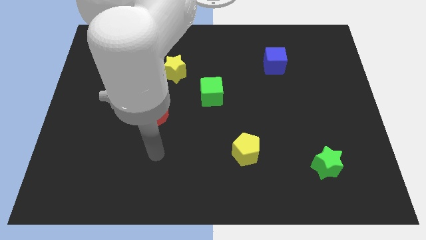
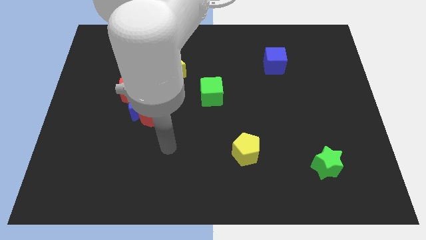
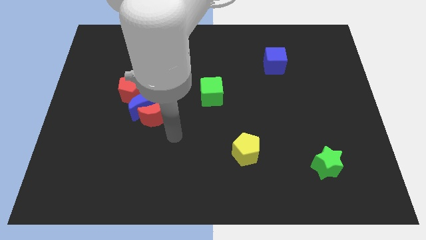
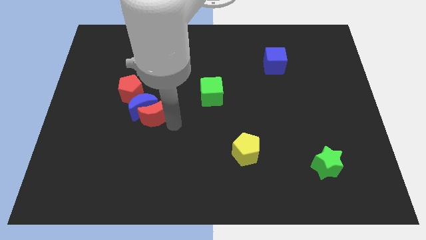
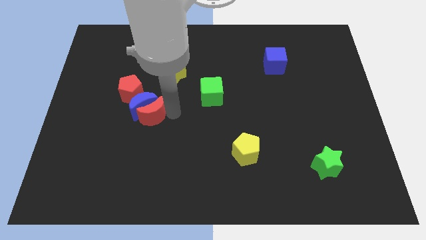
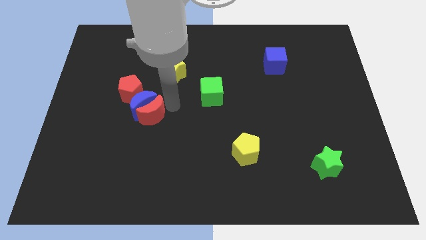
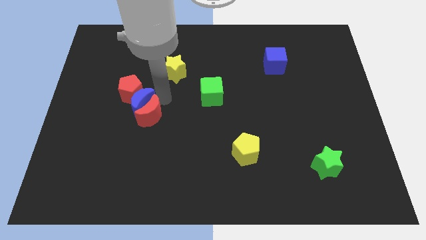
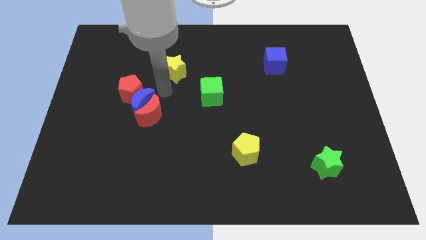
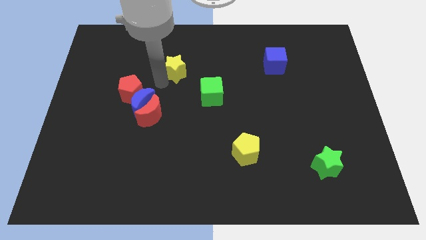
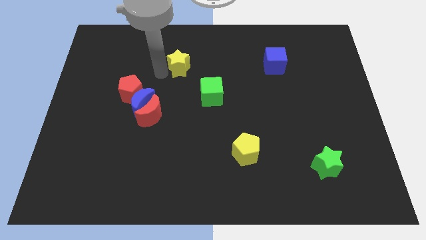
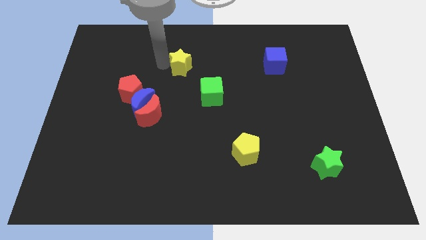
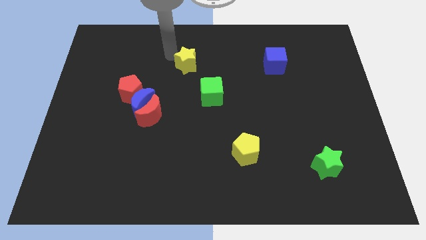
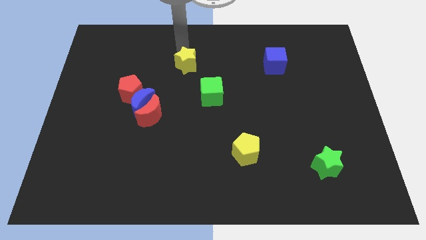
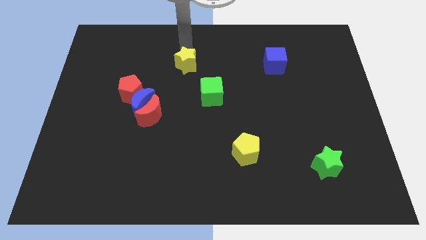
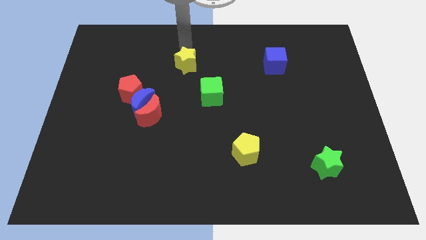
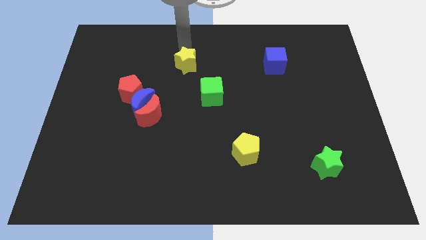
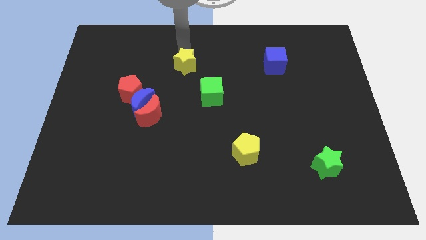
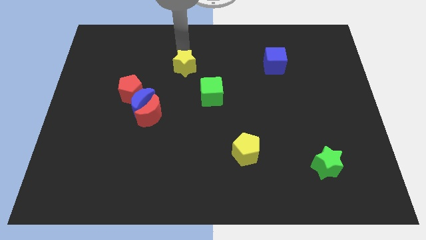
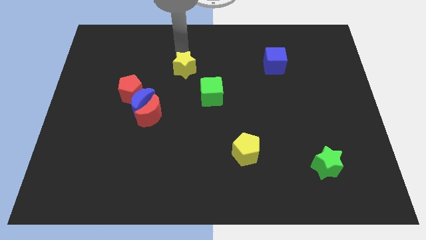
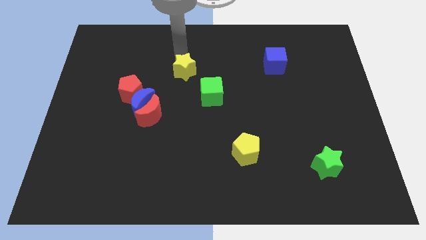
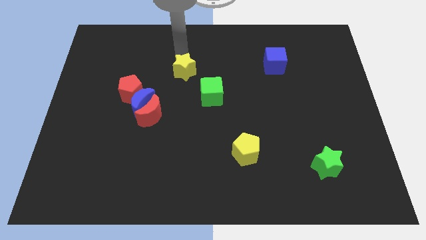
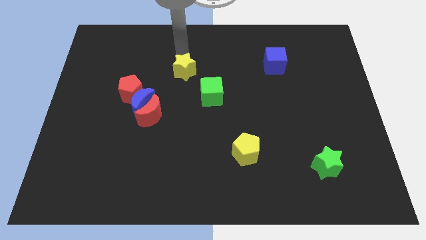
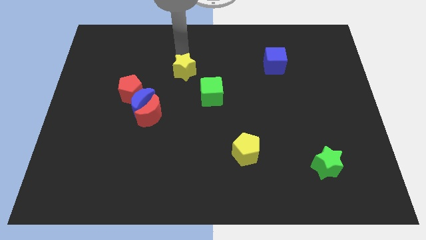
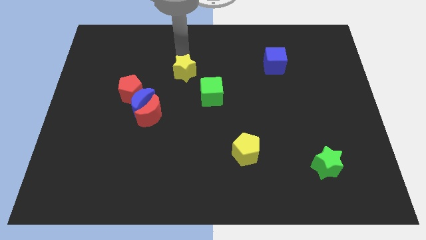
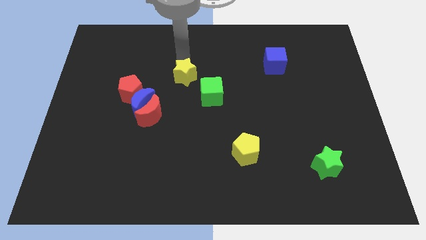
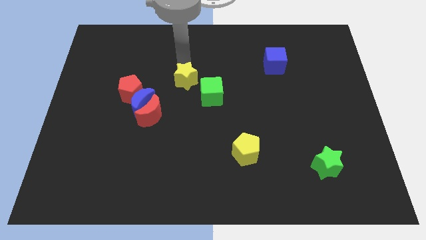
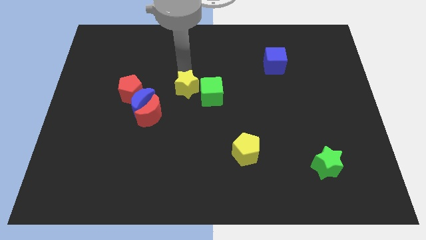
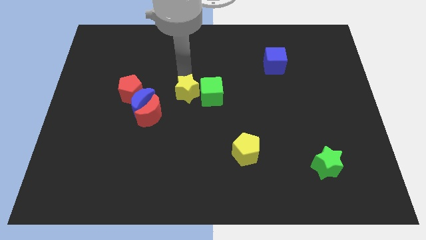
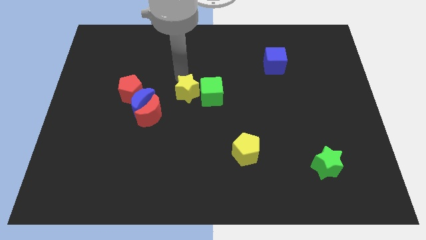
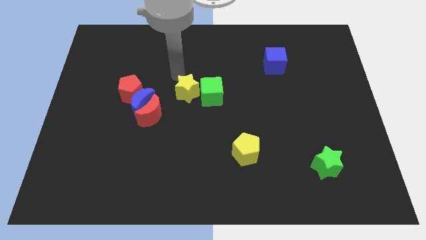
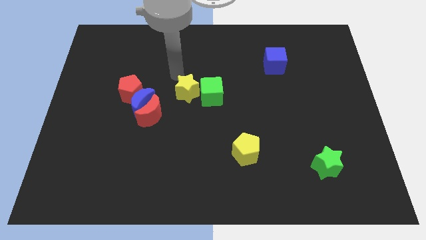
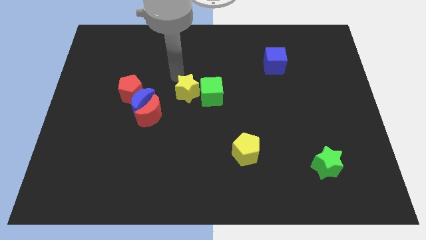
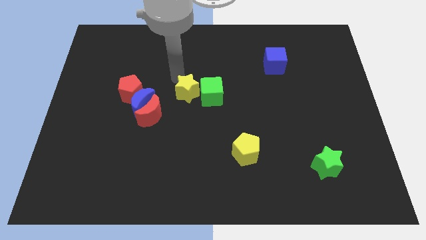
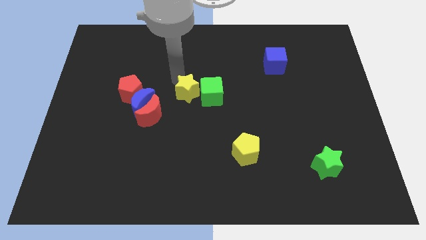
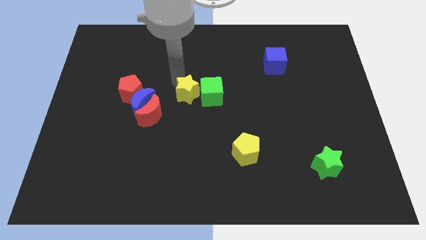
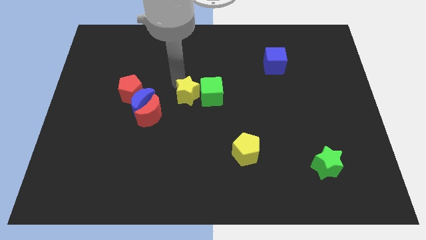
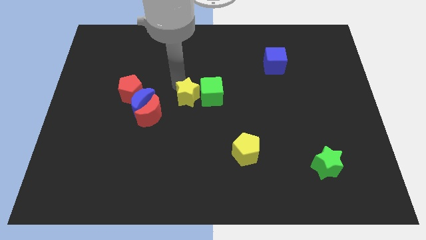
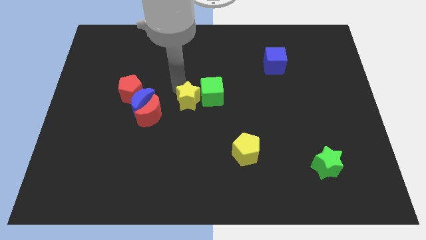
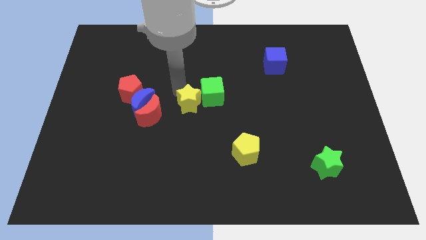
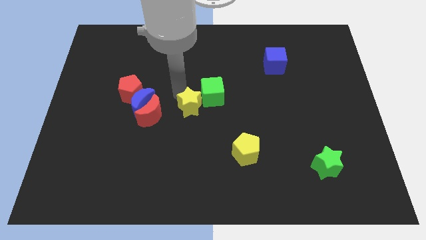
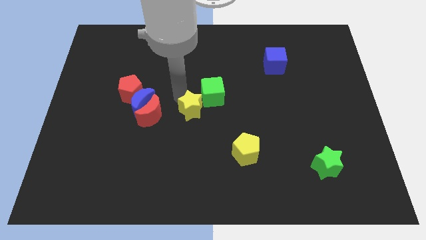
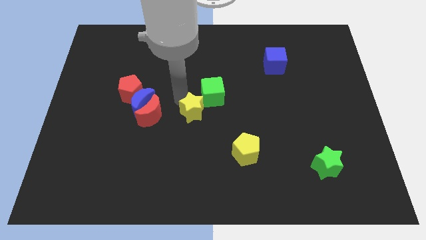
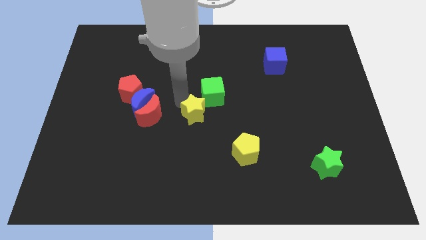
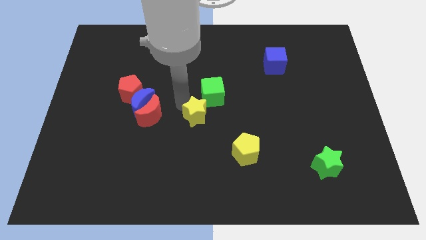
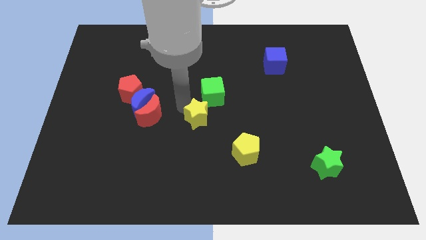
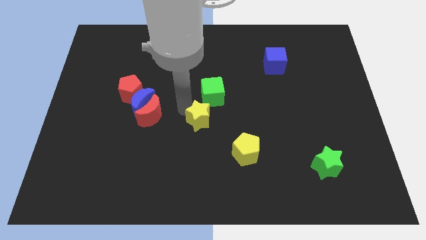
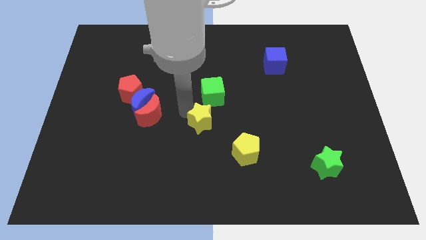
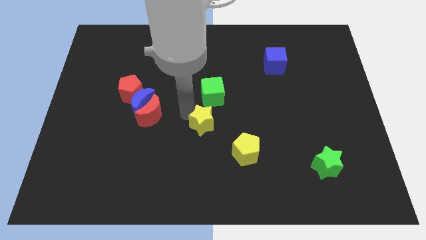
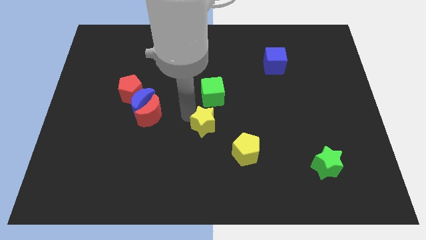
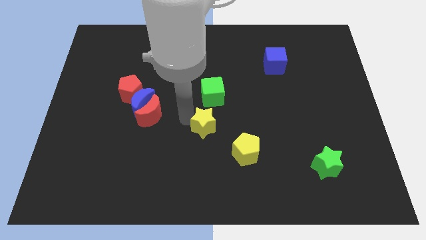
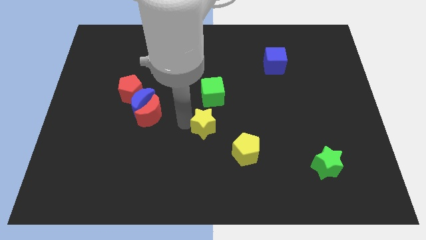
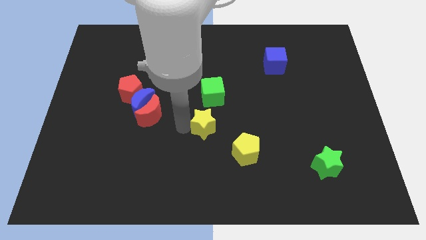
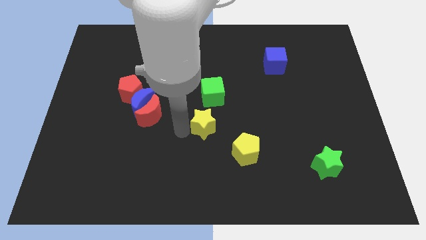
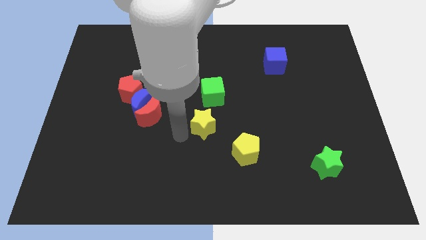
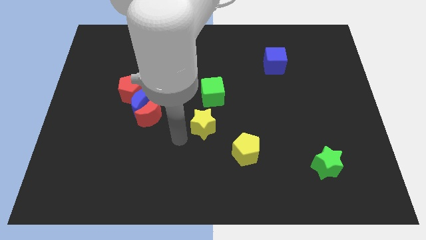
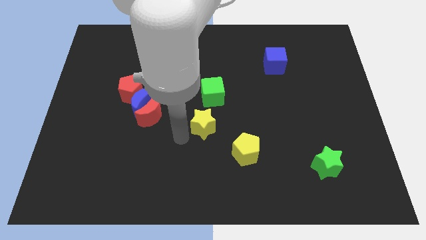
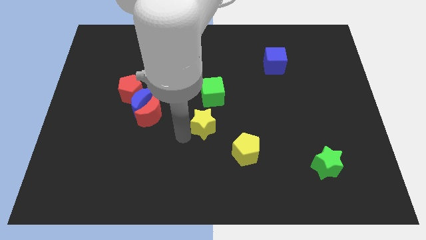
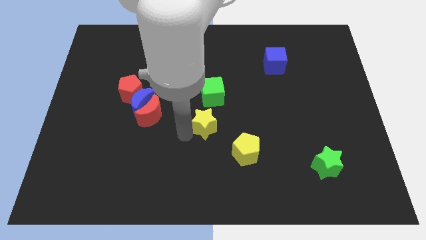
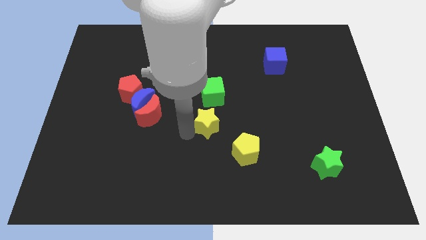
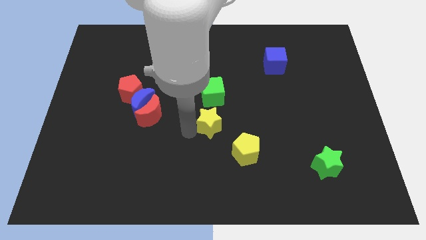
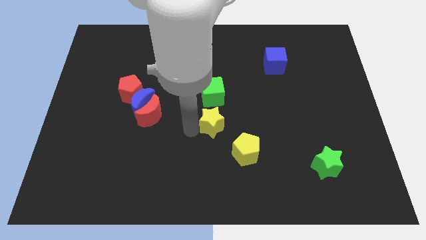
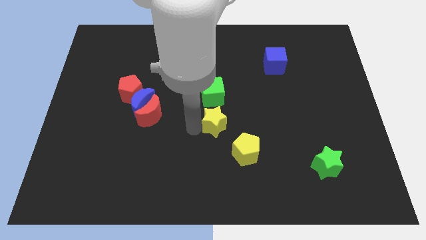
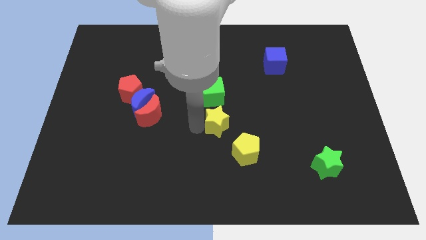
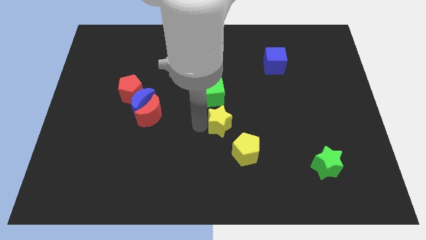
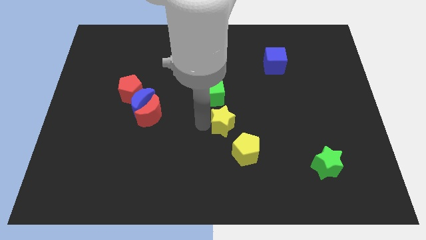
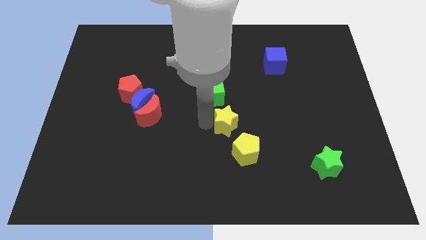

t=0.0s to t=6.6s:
move the yellow star downwards and right diagonally

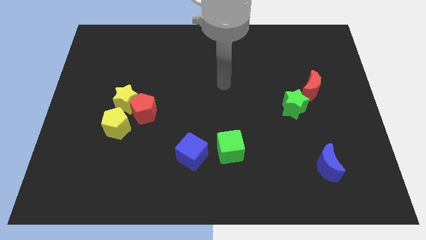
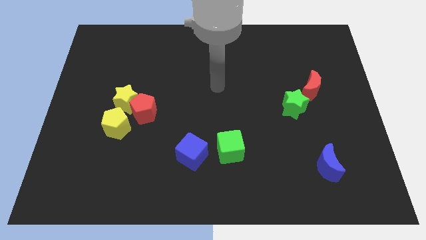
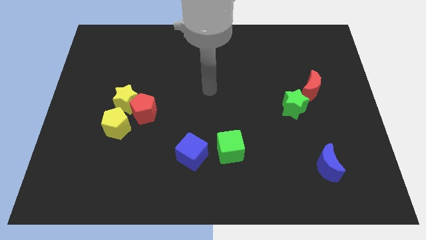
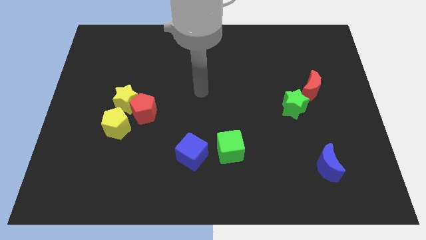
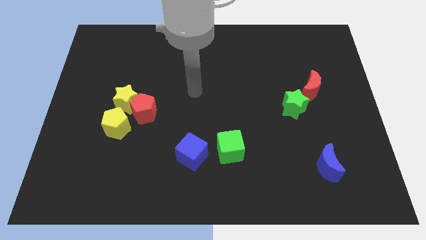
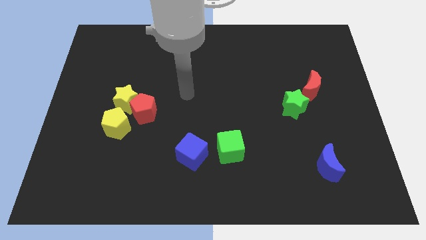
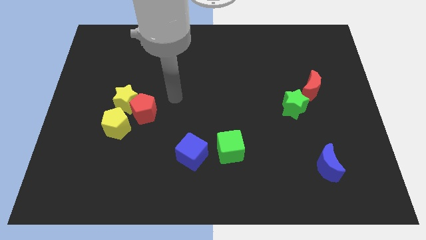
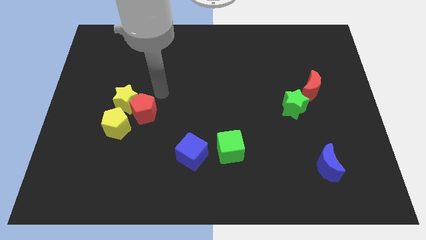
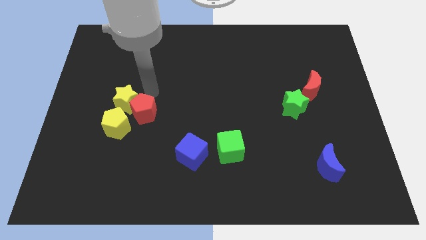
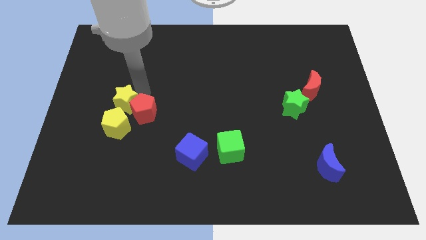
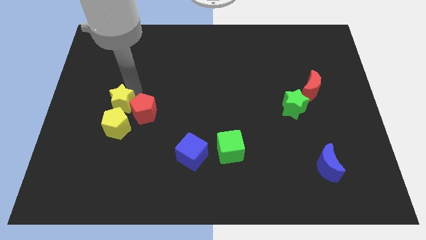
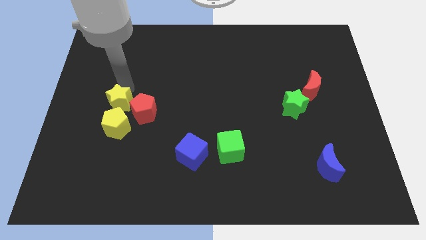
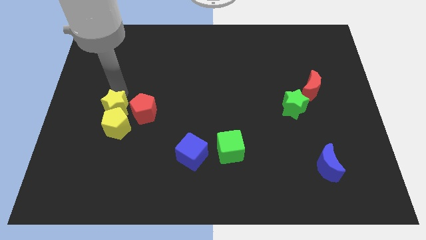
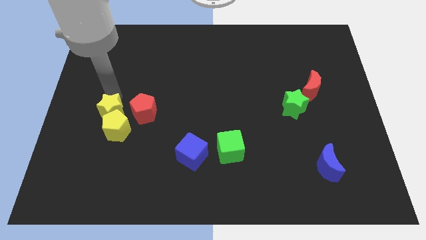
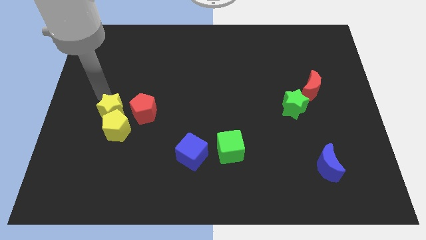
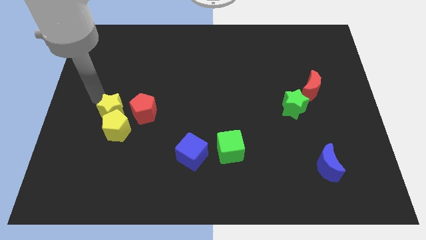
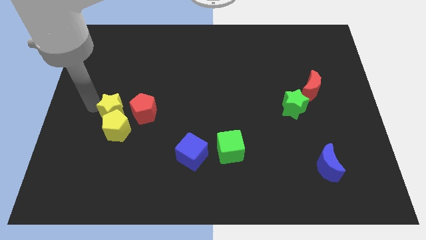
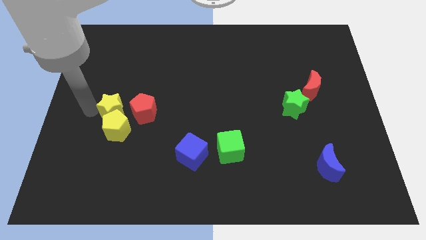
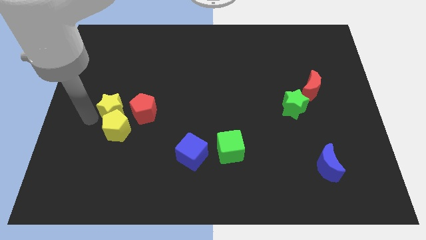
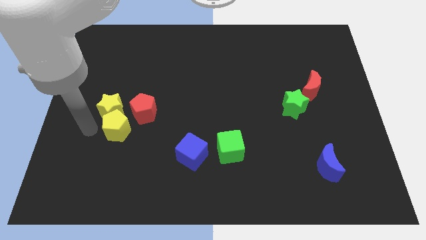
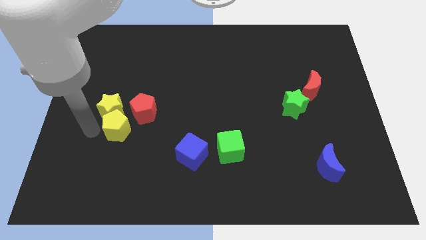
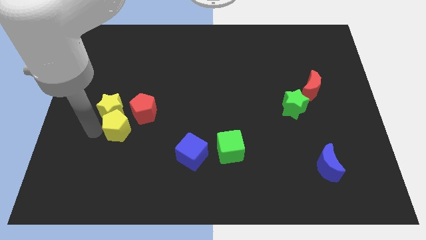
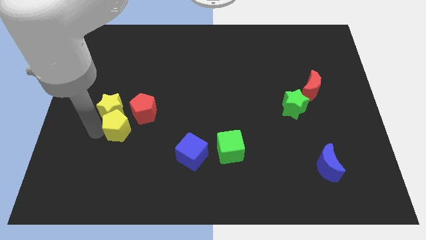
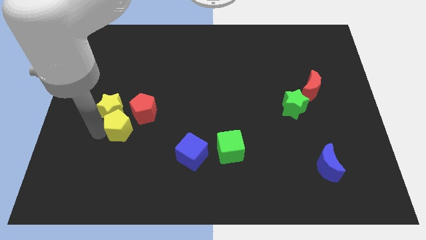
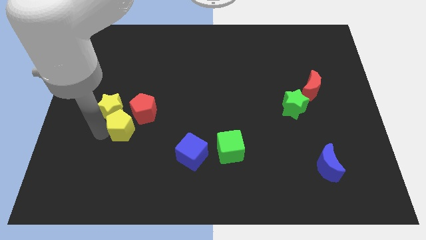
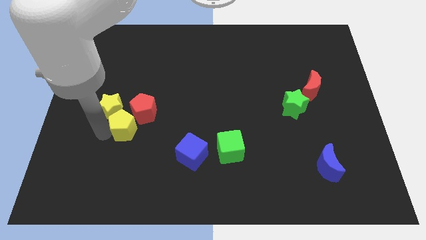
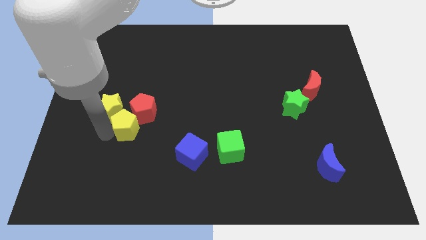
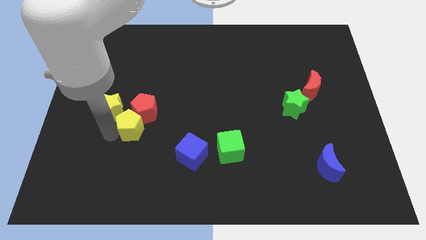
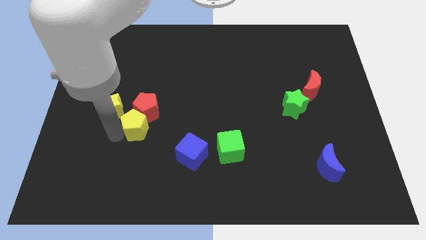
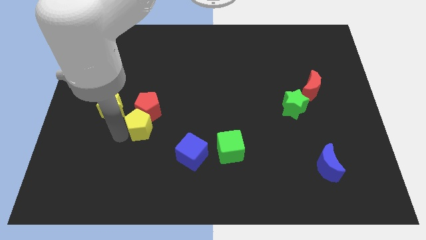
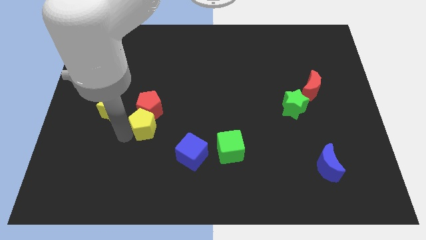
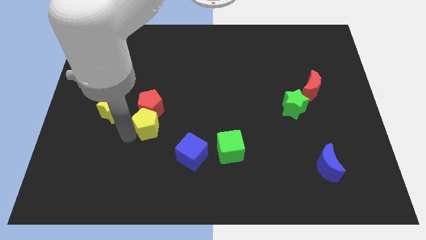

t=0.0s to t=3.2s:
push the yellow pentagon to the right a bit
